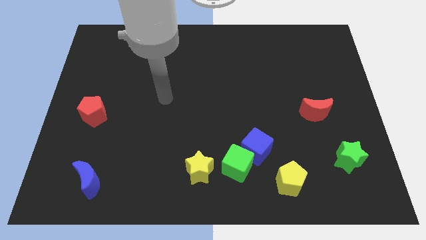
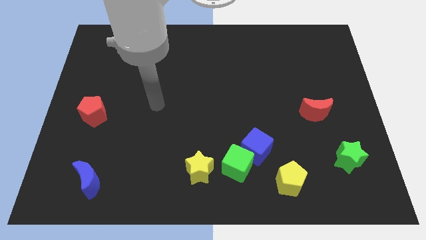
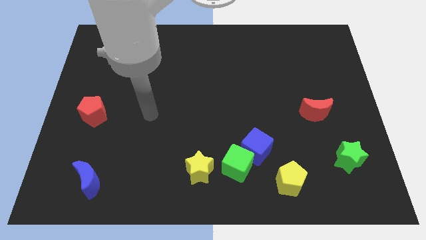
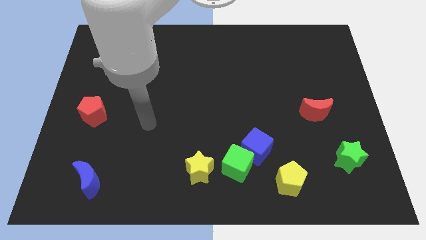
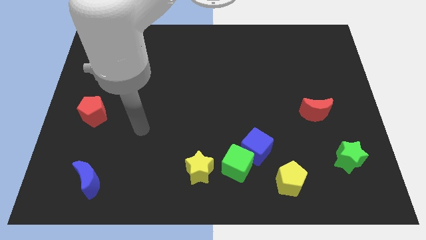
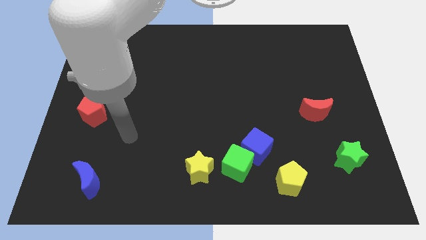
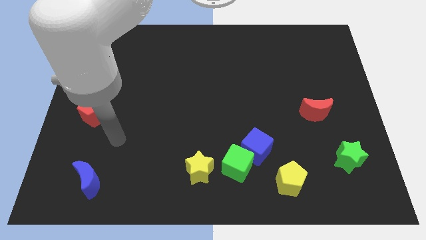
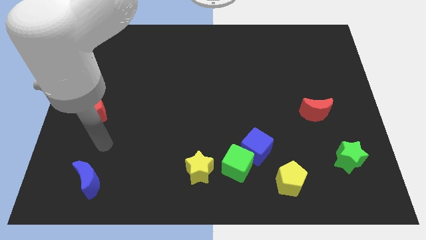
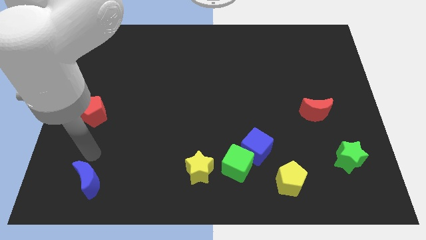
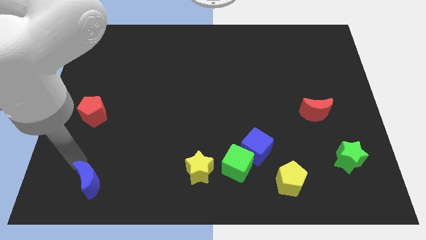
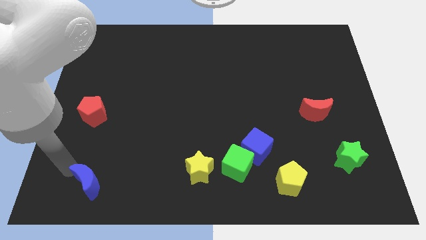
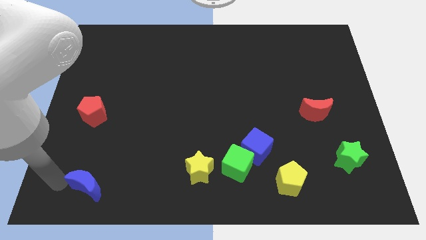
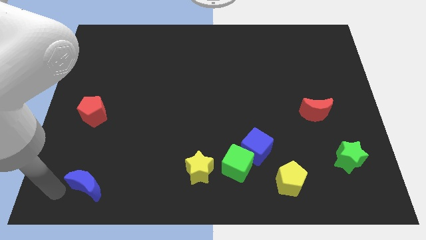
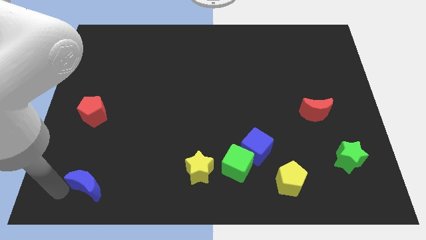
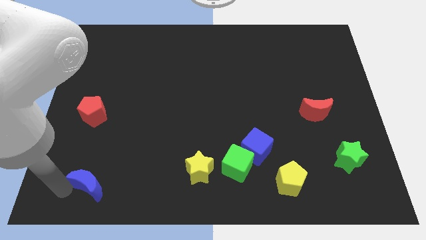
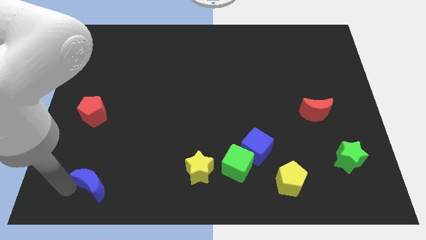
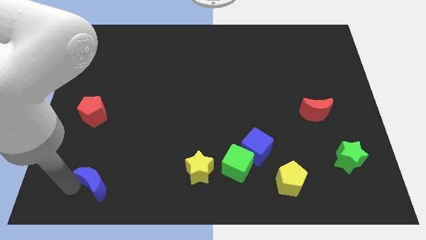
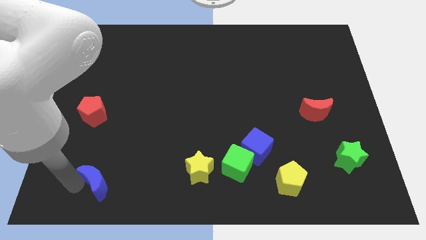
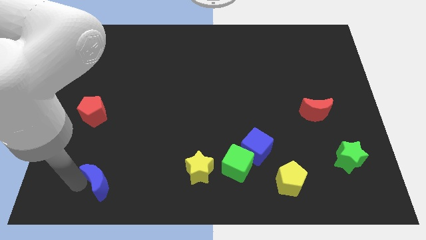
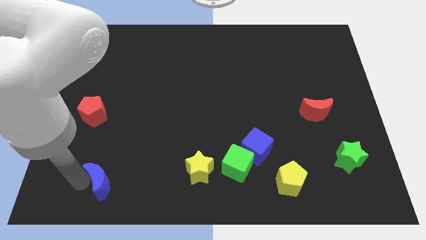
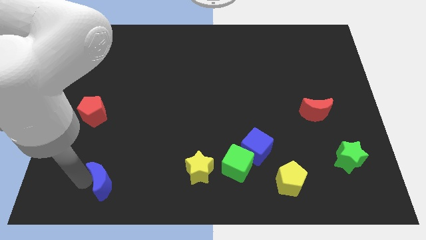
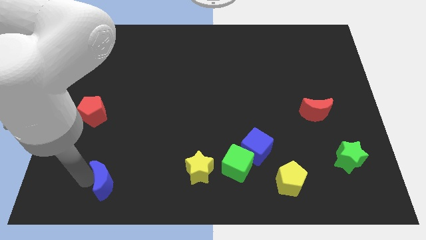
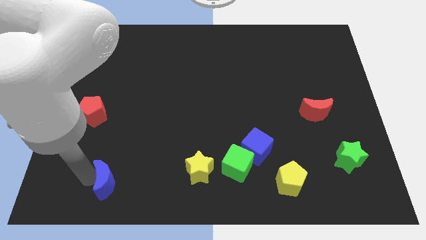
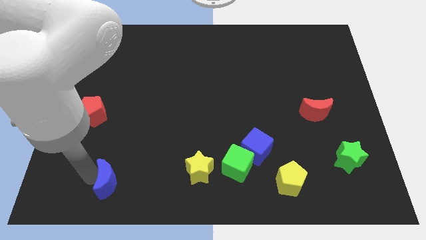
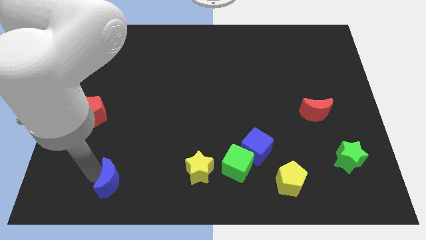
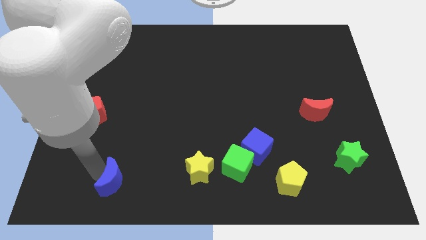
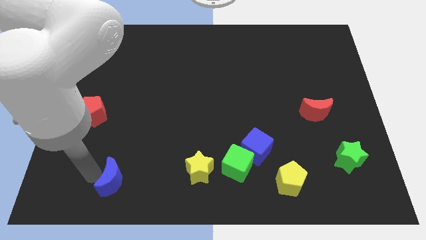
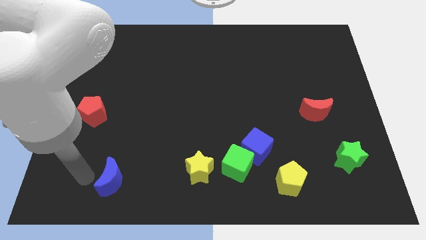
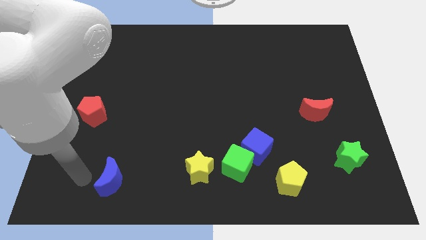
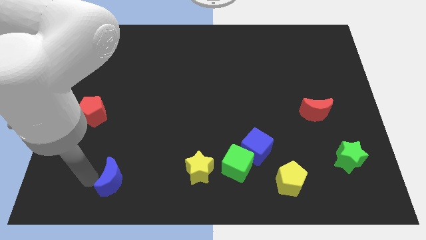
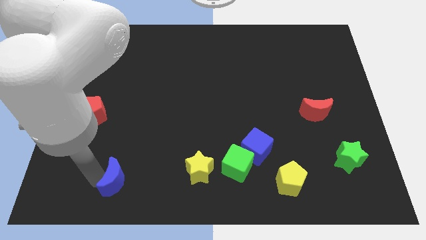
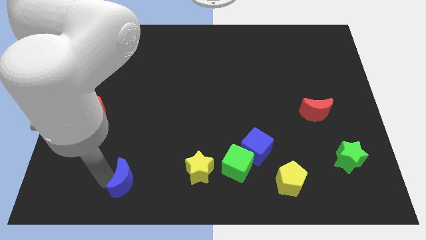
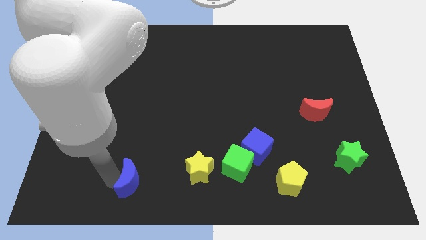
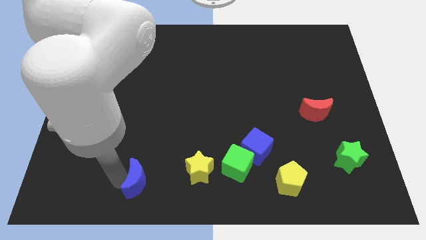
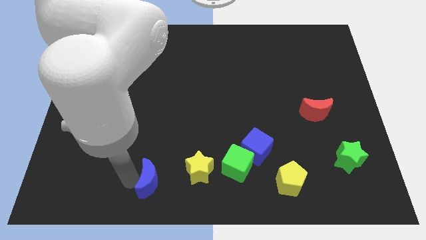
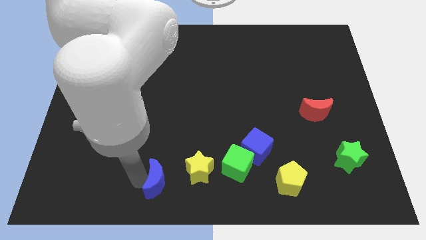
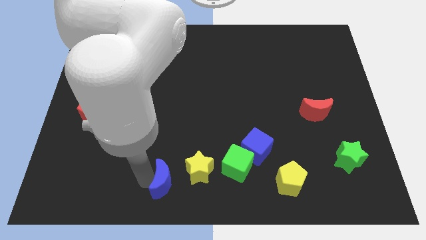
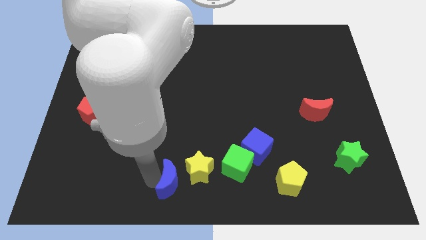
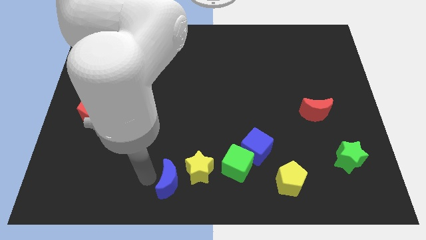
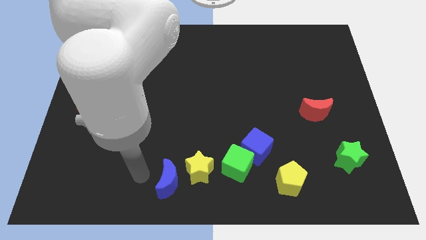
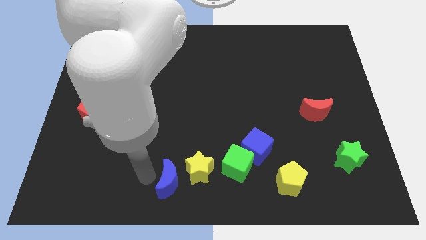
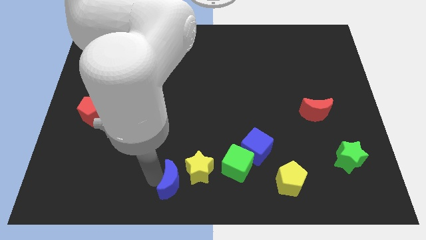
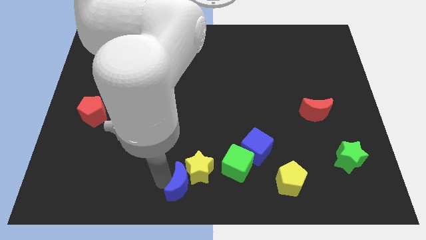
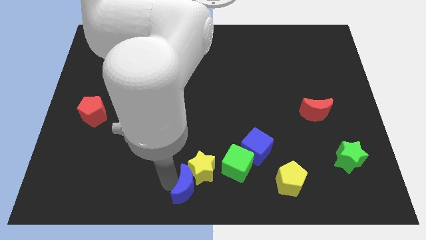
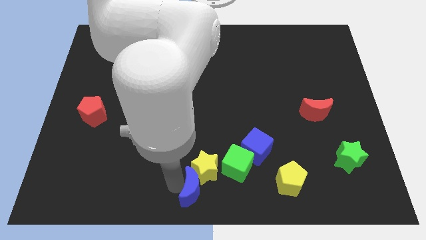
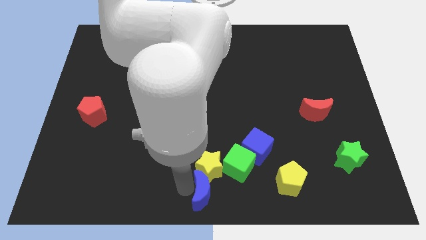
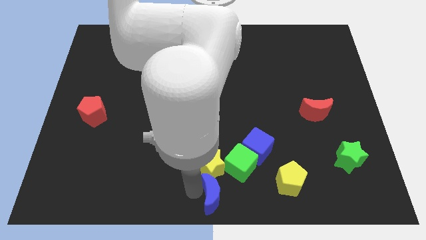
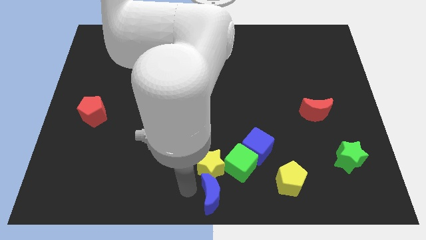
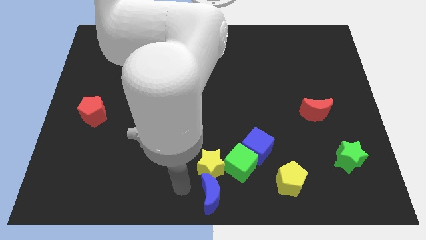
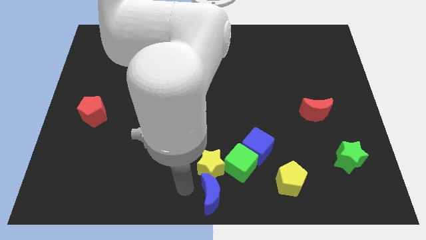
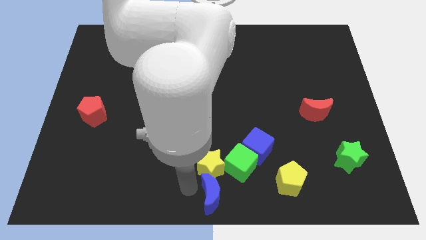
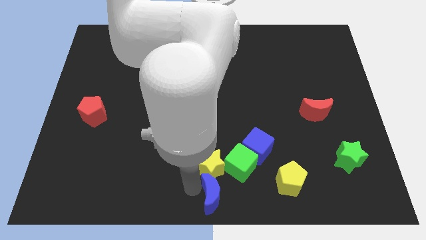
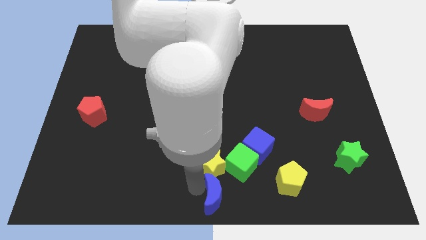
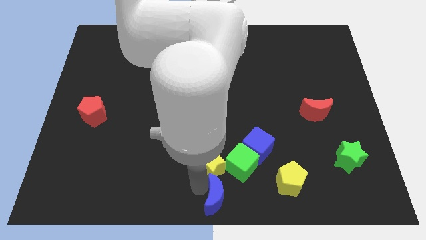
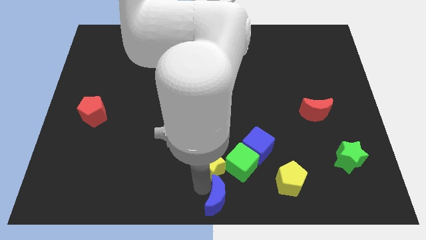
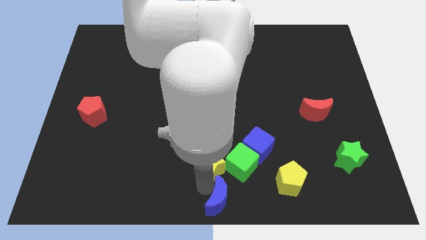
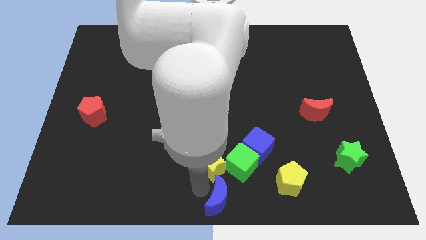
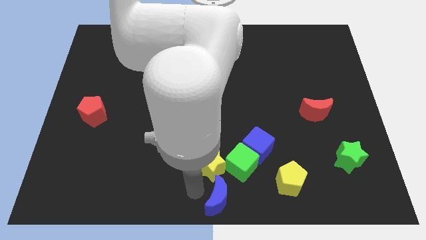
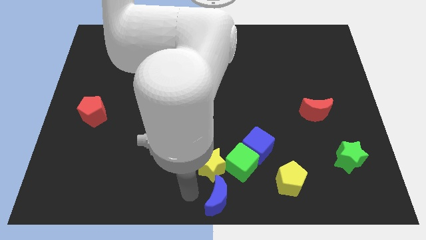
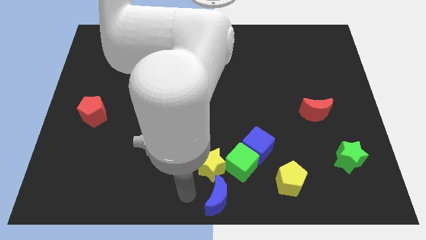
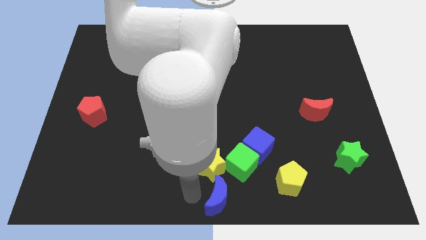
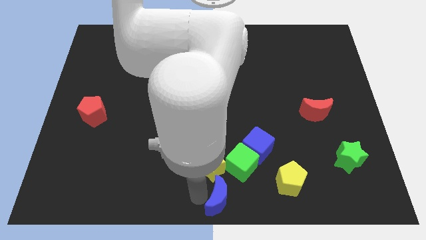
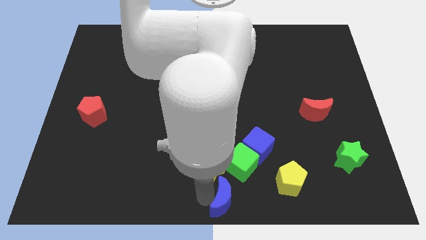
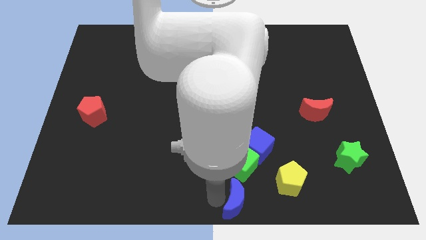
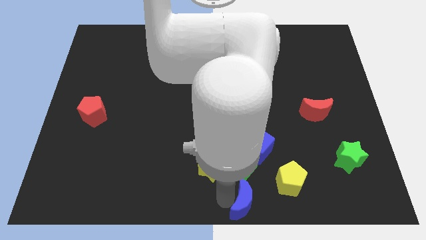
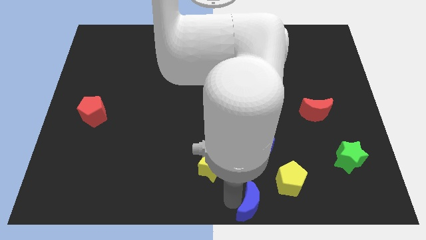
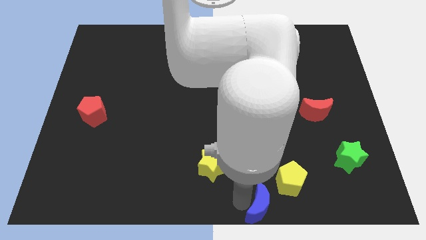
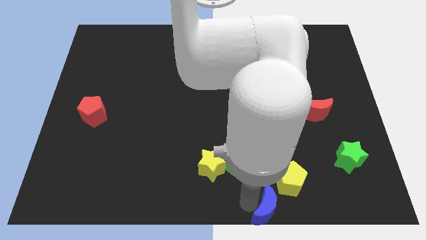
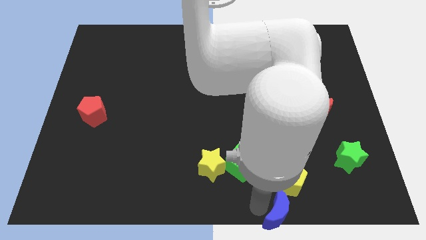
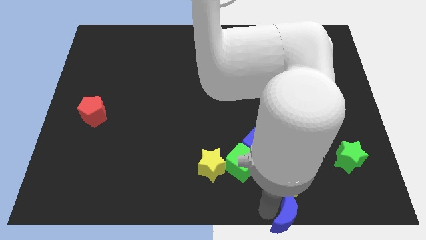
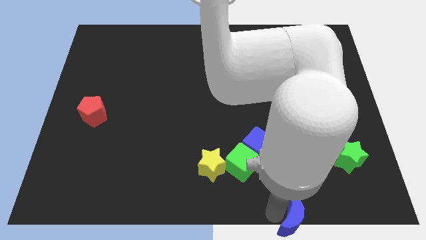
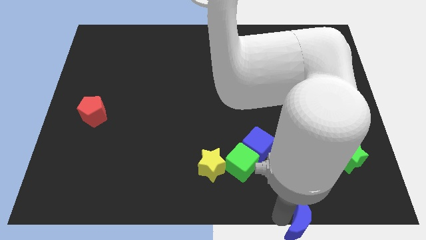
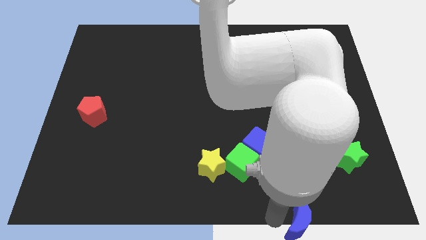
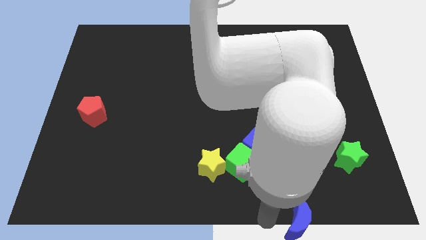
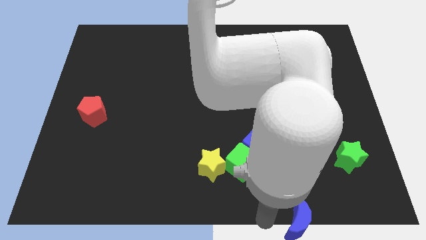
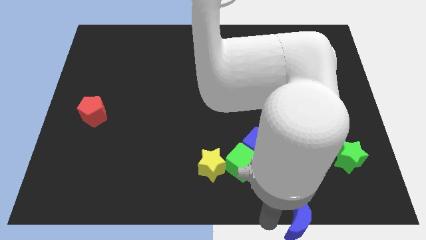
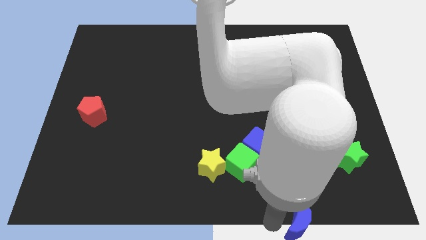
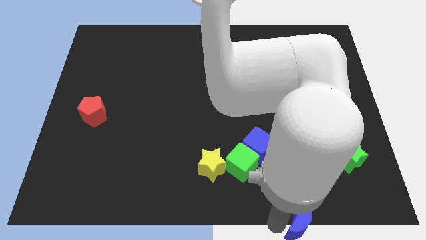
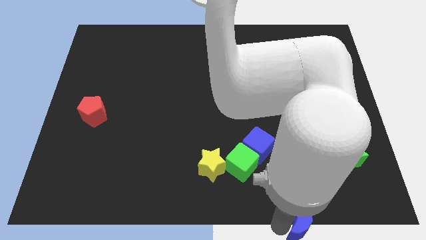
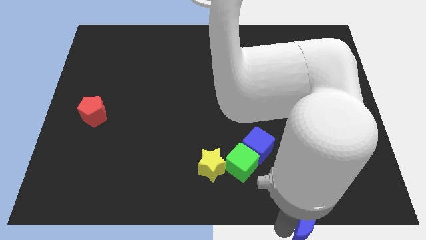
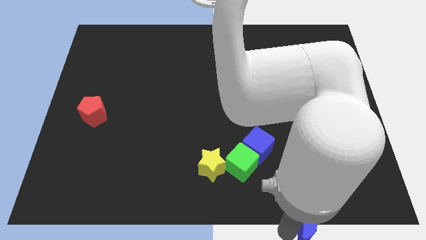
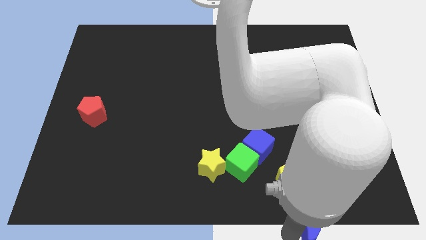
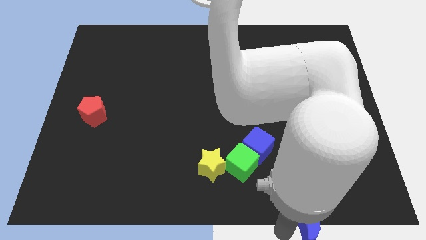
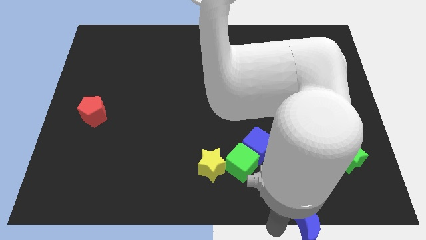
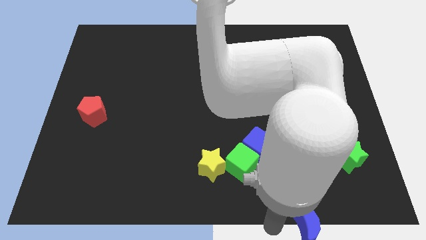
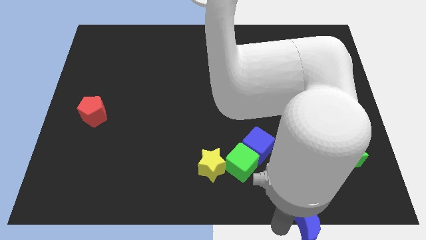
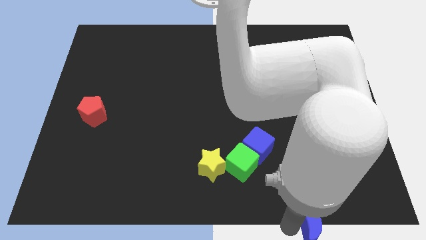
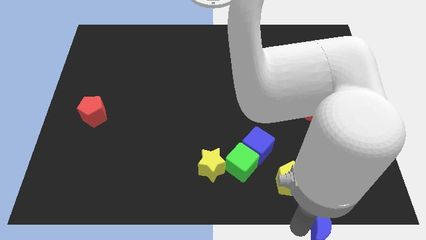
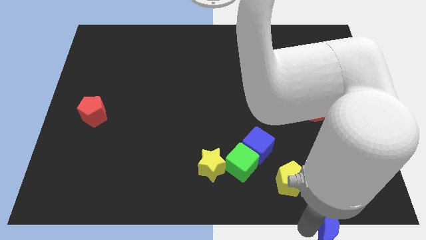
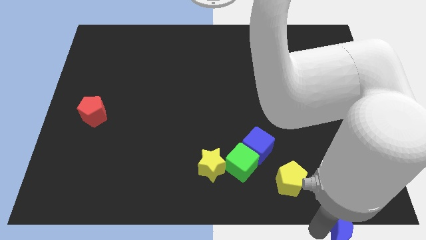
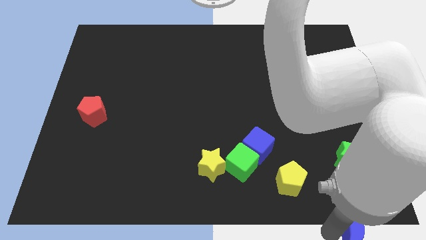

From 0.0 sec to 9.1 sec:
put the blue moon to the bottom right of the board
